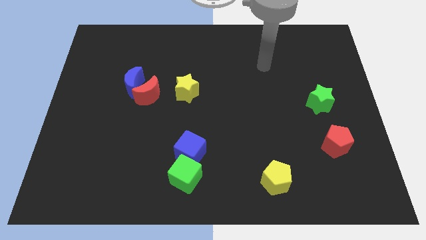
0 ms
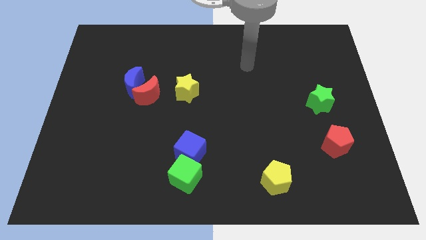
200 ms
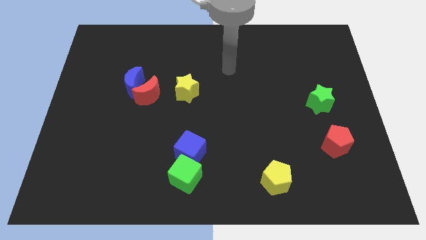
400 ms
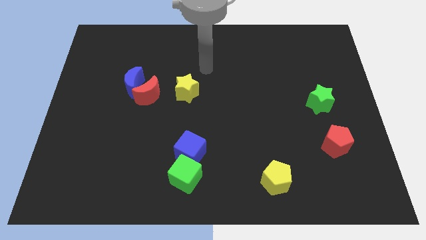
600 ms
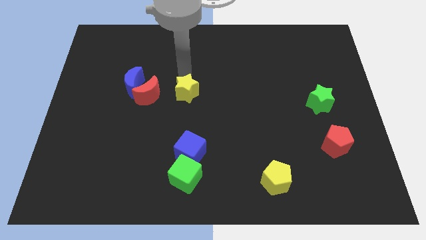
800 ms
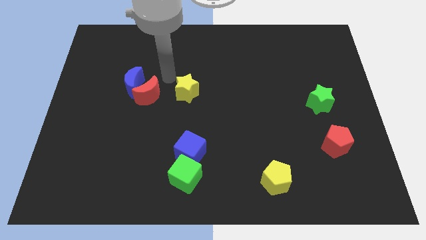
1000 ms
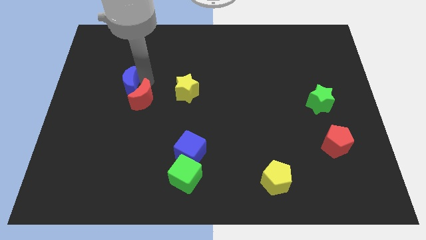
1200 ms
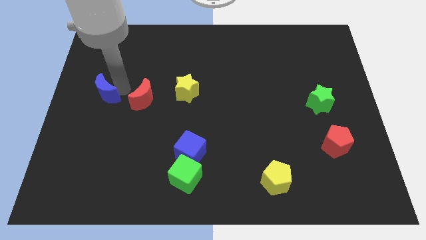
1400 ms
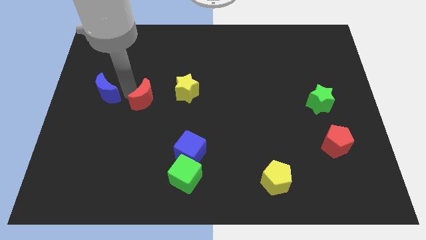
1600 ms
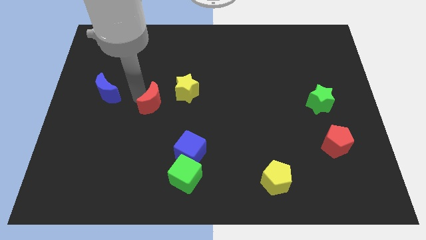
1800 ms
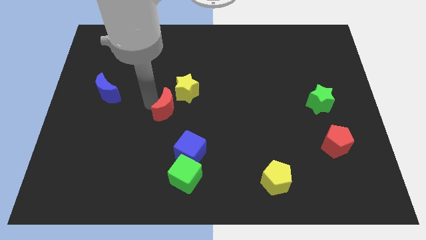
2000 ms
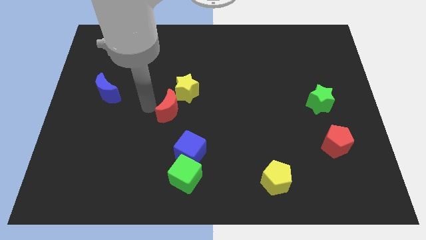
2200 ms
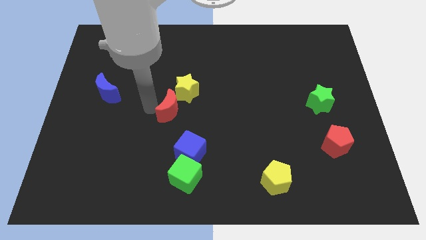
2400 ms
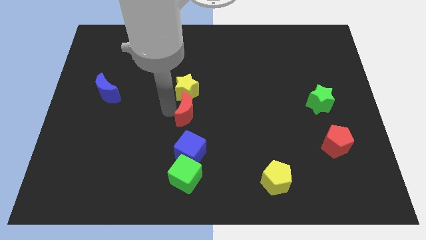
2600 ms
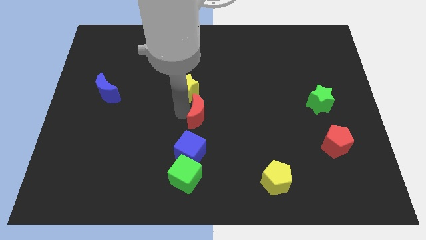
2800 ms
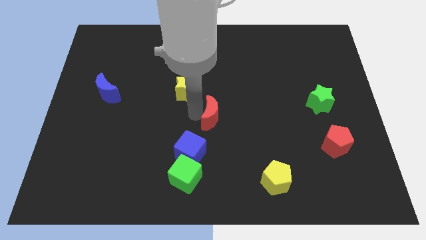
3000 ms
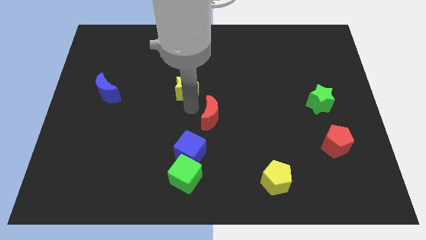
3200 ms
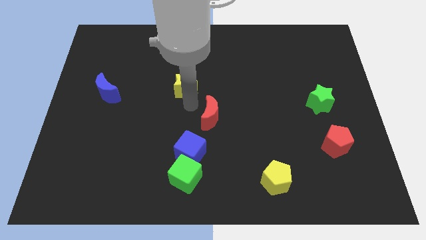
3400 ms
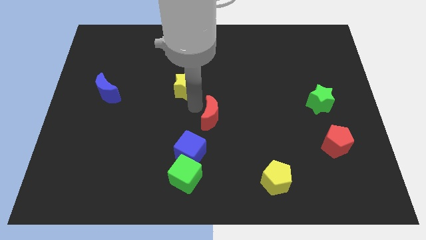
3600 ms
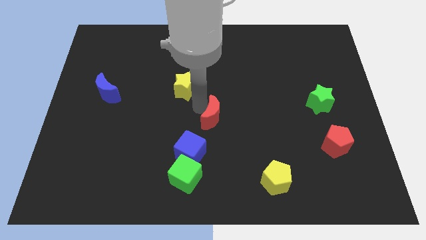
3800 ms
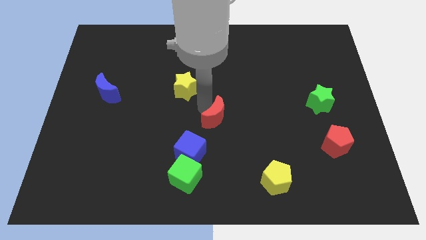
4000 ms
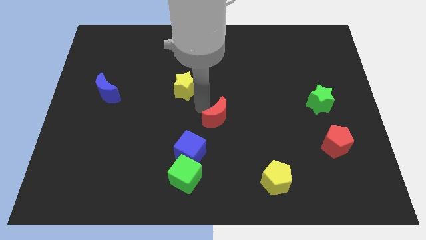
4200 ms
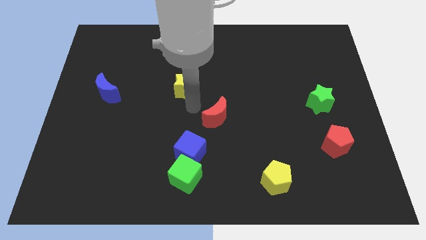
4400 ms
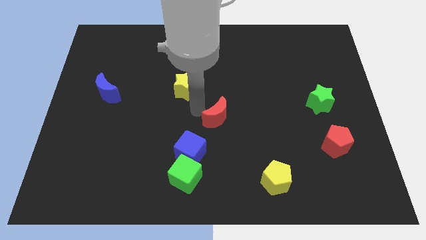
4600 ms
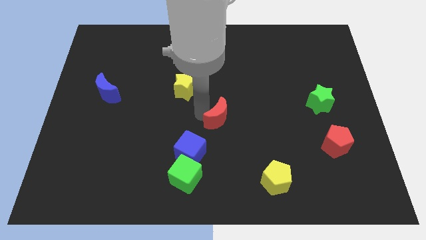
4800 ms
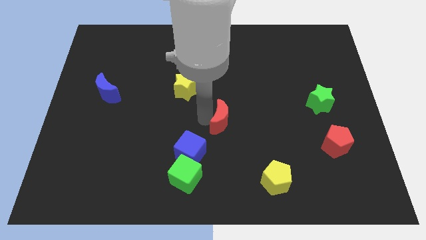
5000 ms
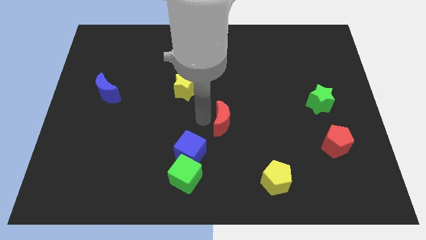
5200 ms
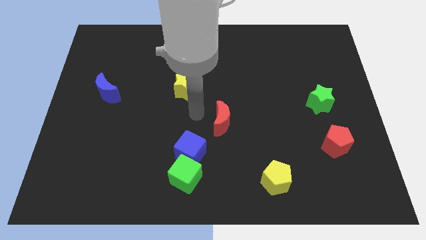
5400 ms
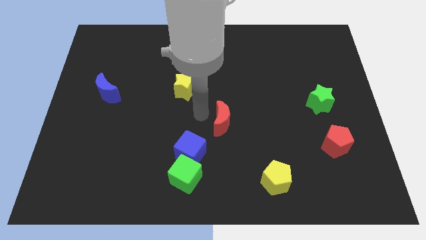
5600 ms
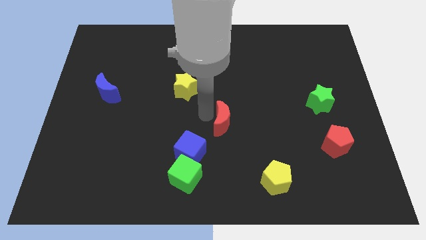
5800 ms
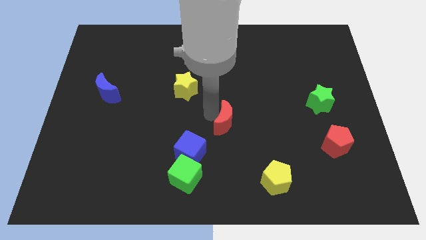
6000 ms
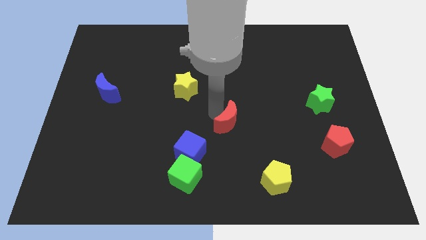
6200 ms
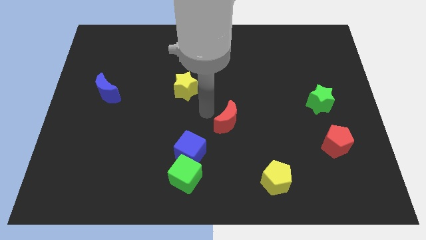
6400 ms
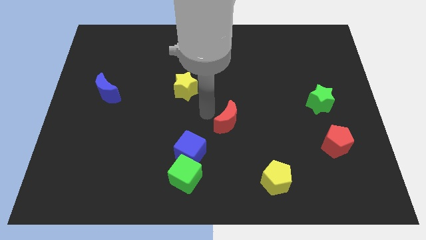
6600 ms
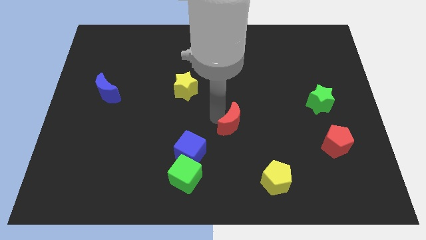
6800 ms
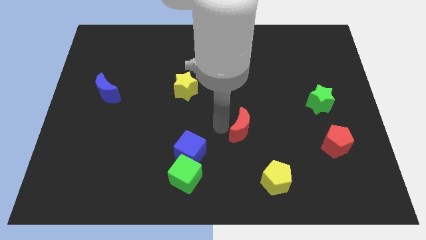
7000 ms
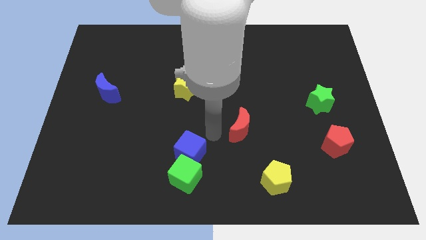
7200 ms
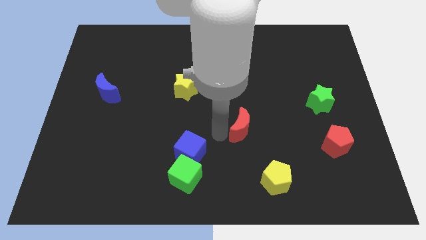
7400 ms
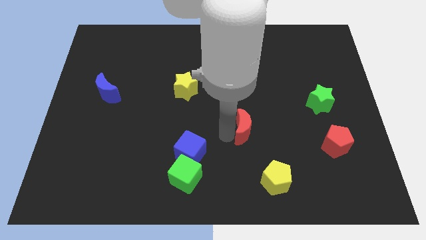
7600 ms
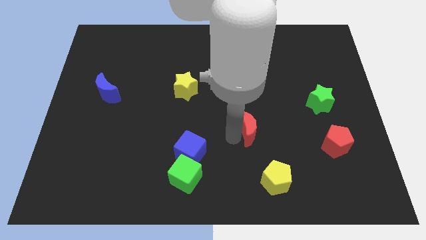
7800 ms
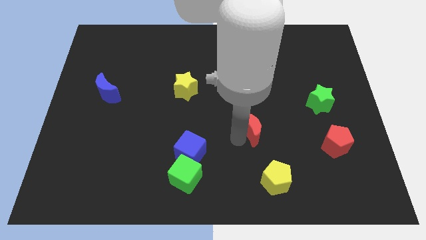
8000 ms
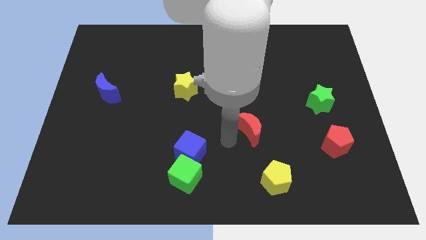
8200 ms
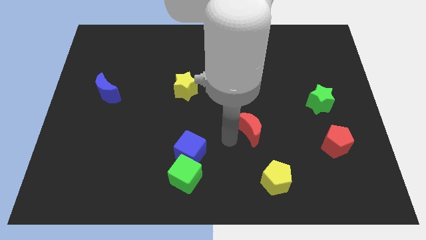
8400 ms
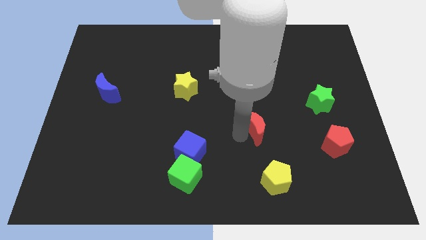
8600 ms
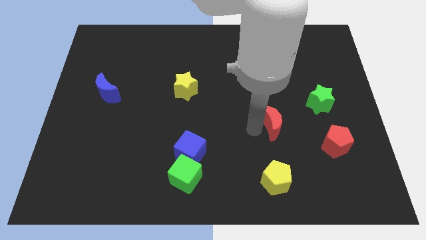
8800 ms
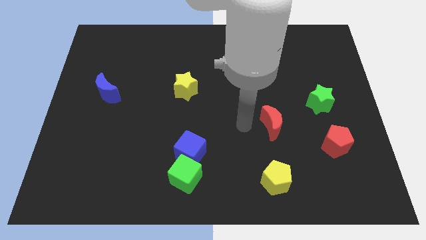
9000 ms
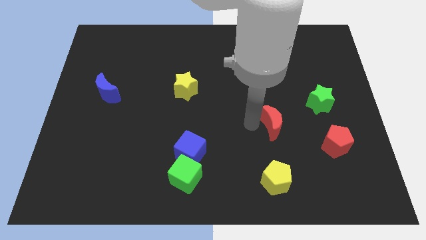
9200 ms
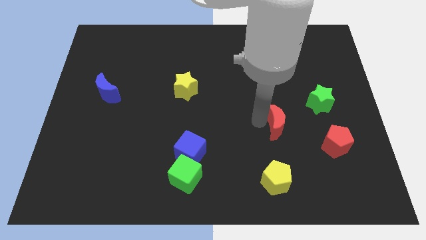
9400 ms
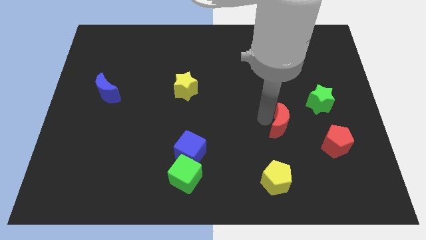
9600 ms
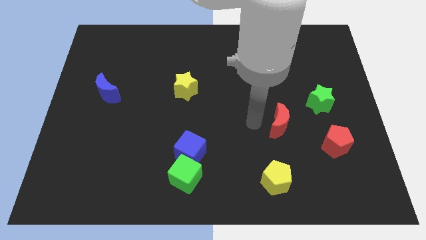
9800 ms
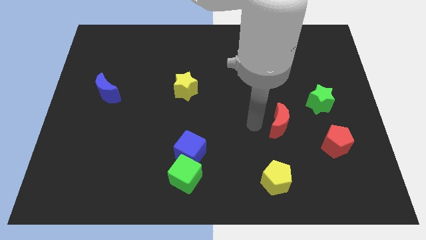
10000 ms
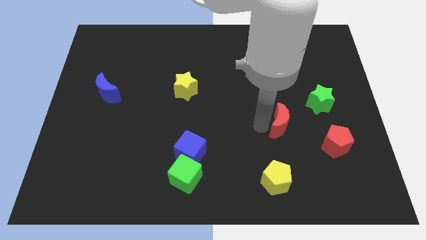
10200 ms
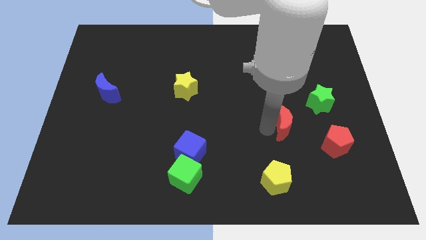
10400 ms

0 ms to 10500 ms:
put the red moon diagonally up and to the left of the red pentagon
